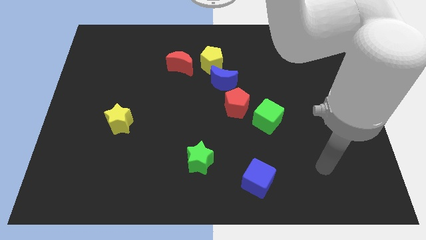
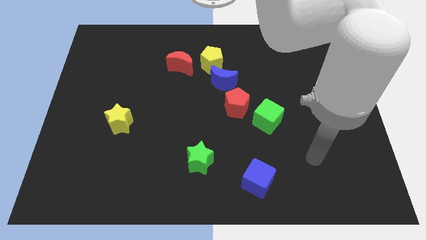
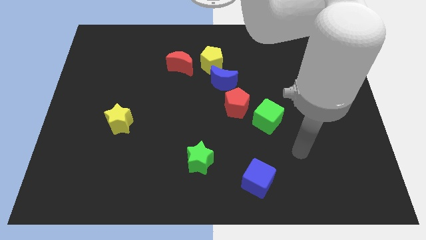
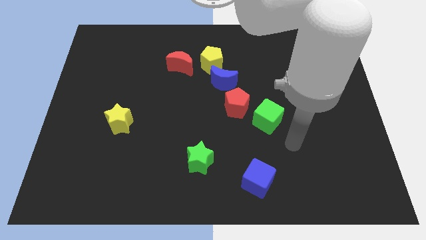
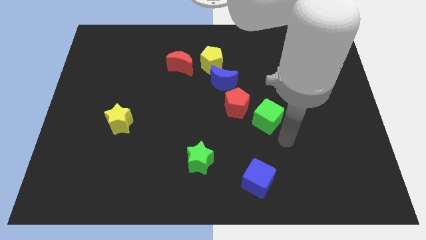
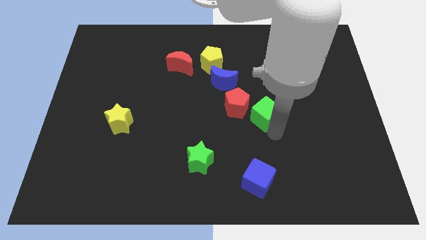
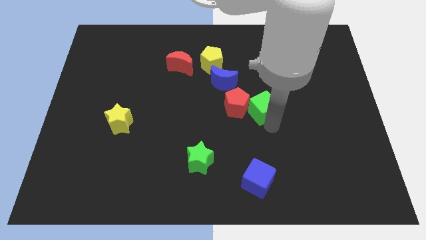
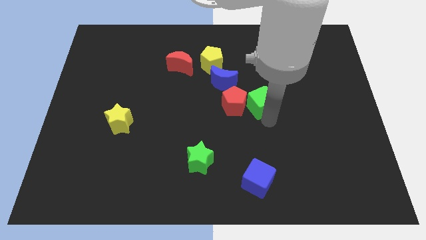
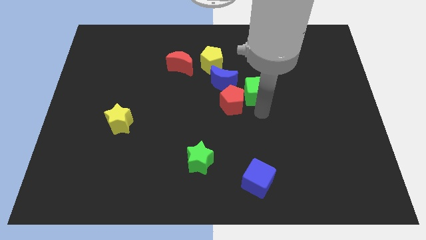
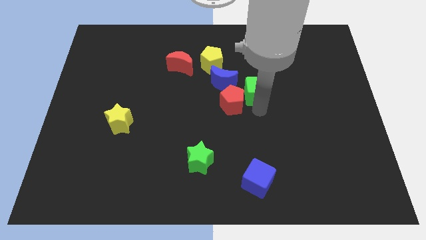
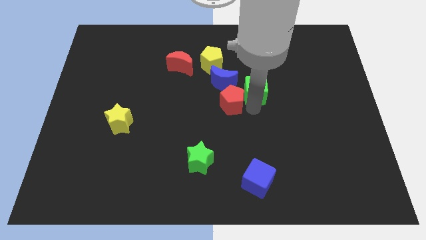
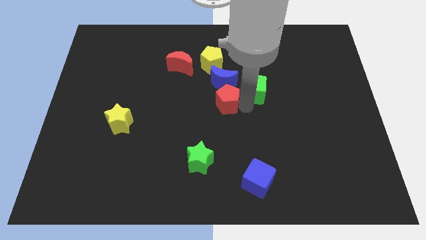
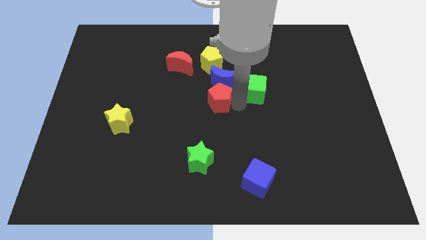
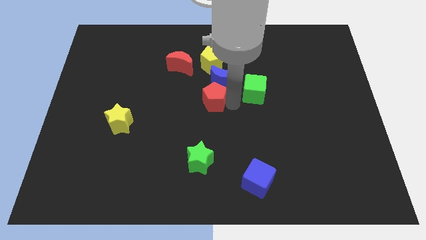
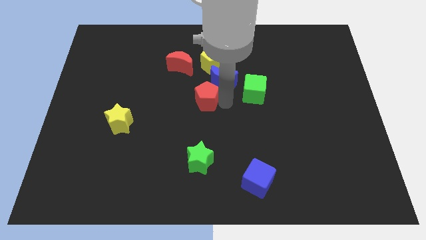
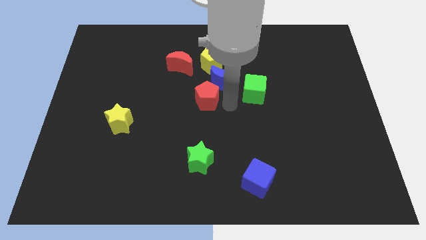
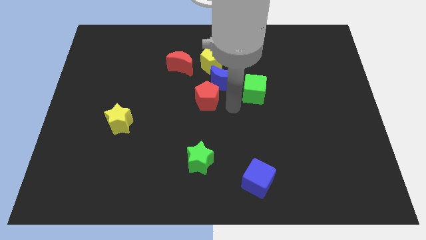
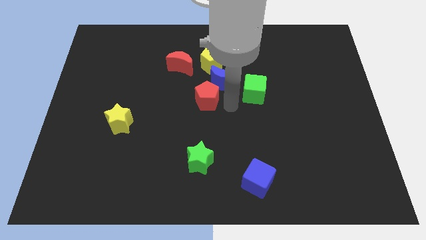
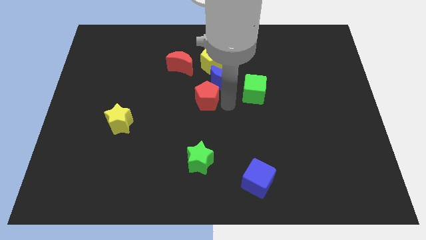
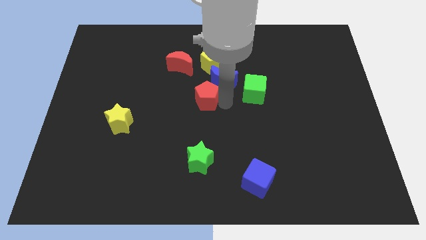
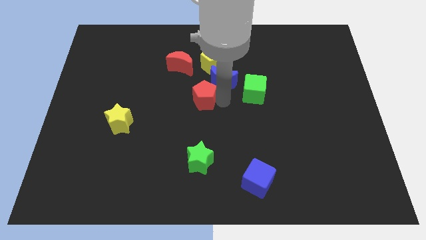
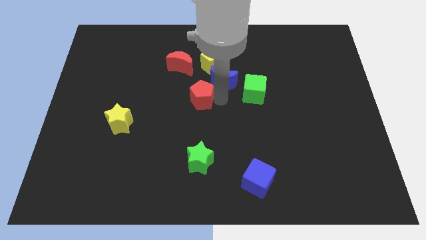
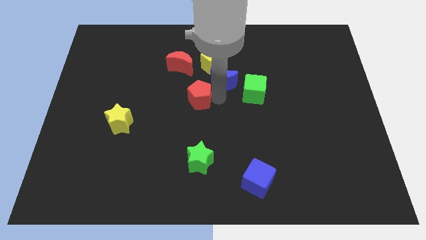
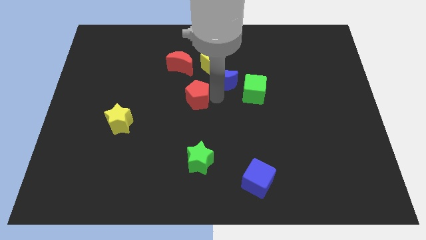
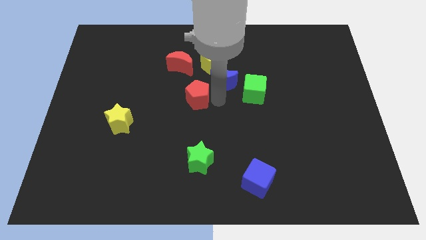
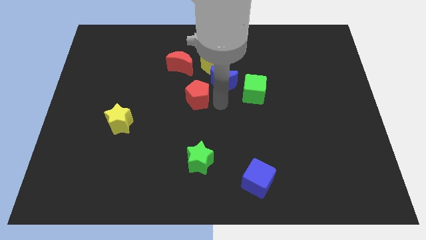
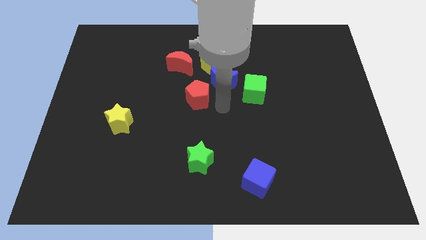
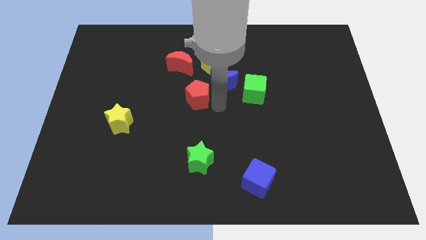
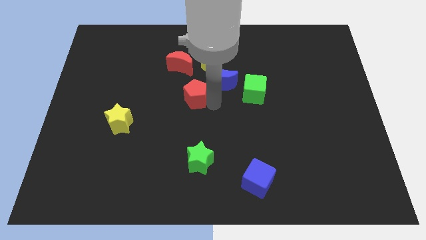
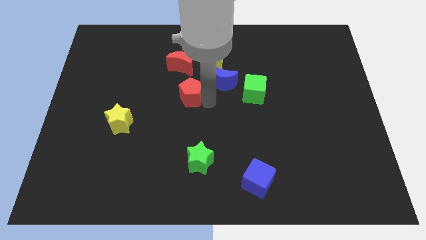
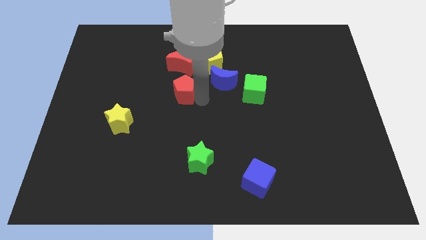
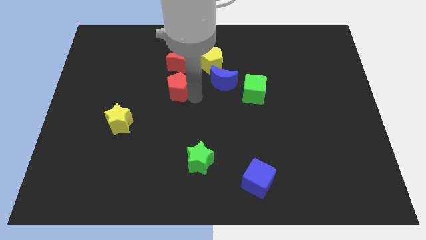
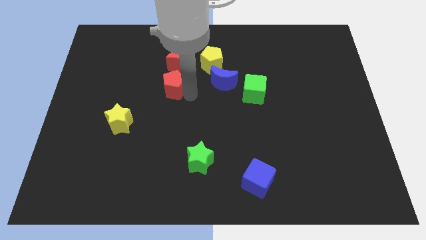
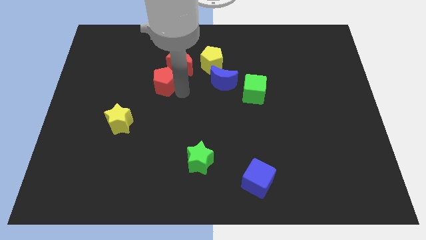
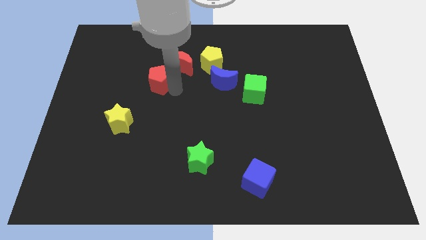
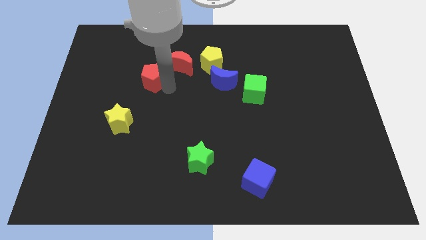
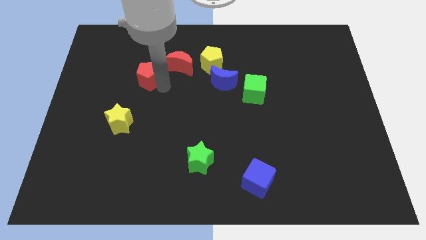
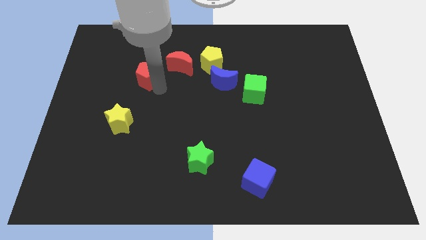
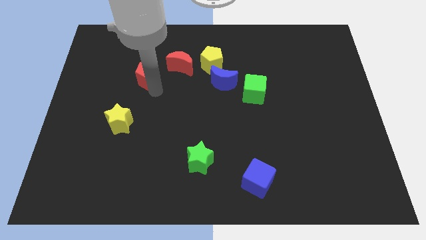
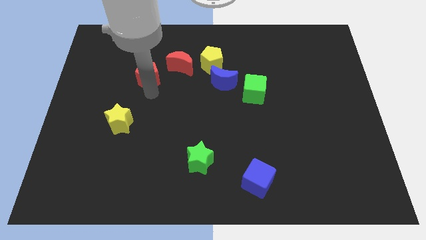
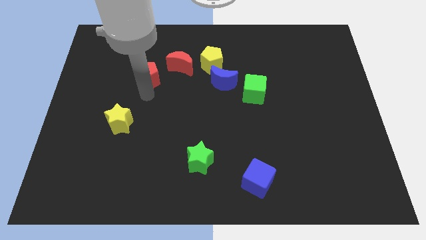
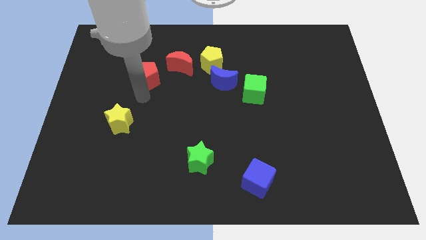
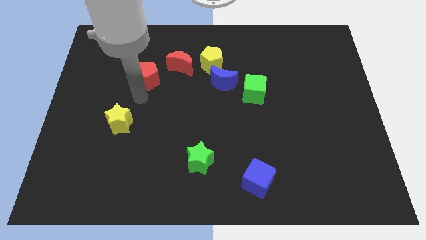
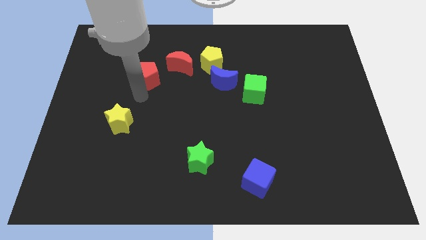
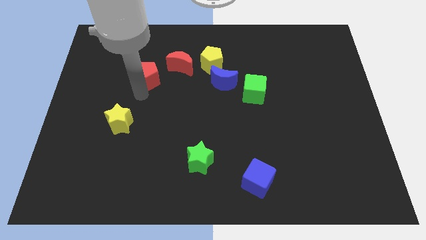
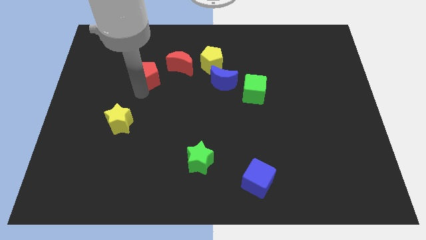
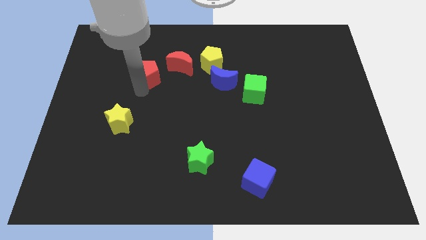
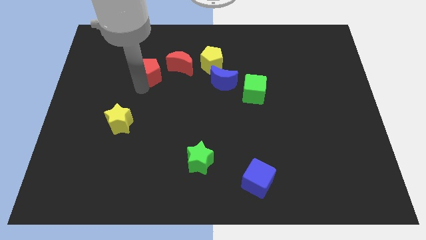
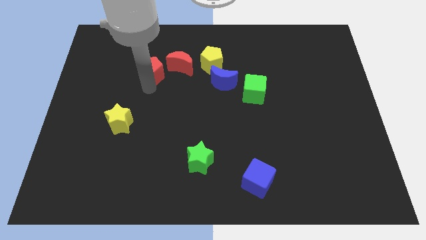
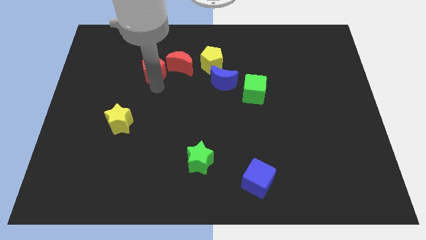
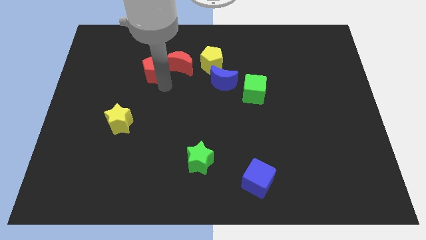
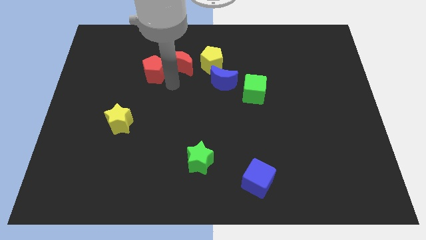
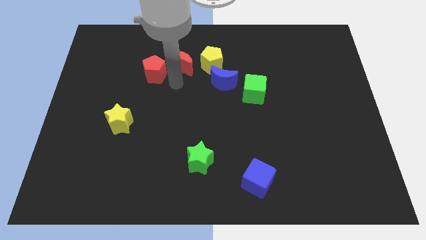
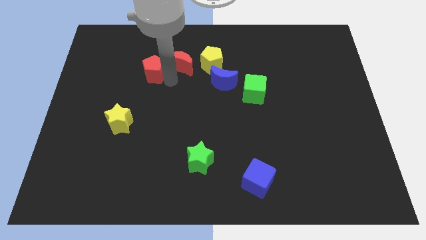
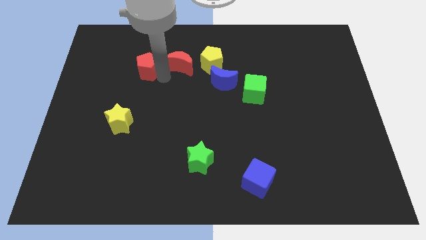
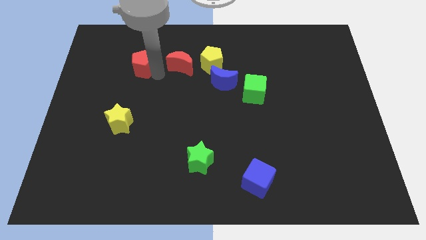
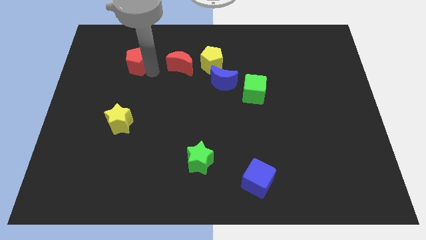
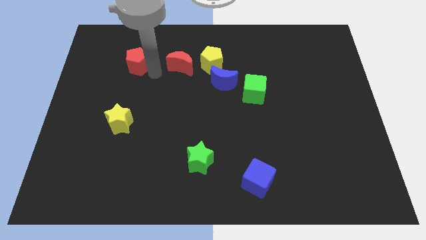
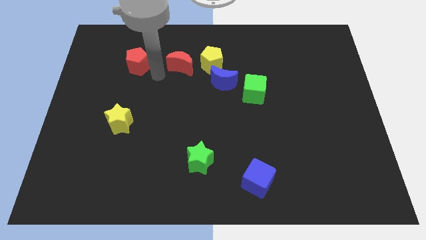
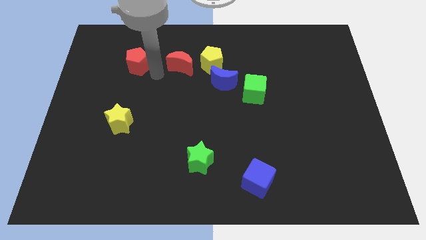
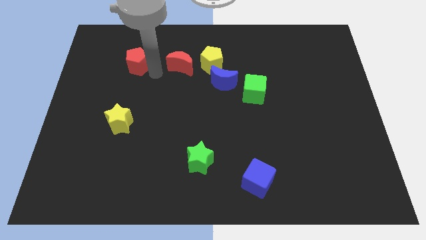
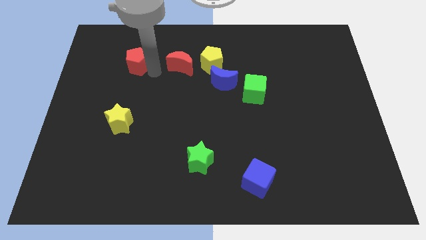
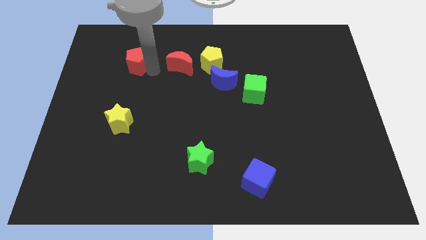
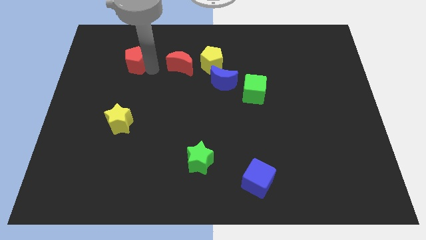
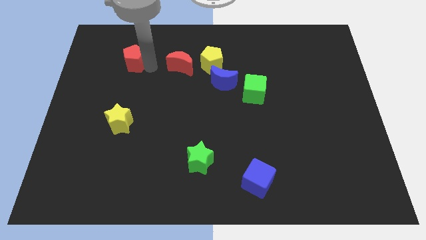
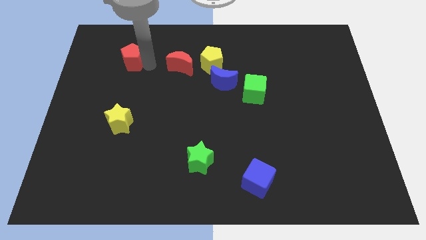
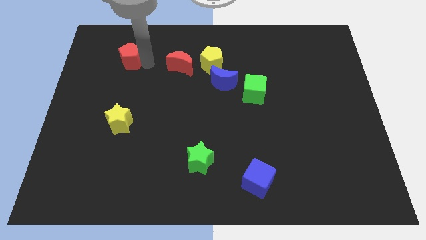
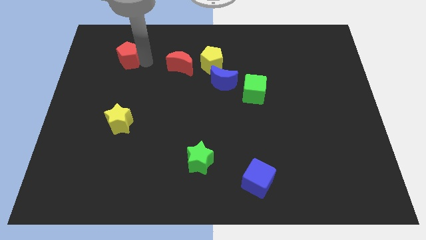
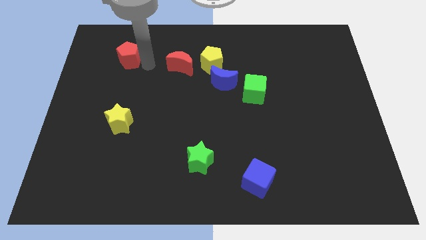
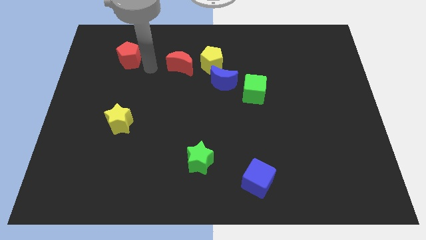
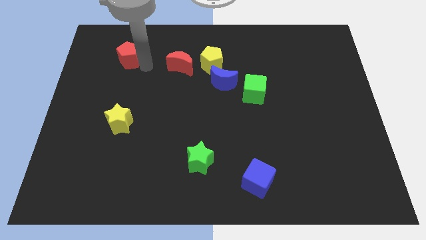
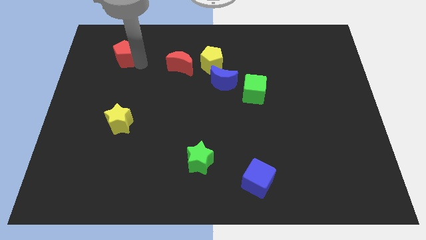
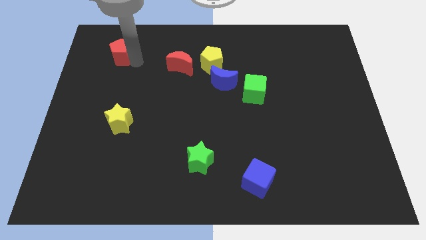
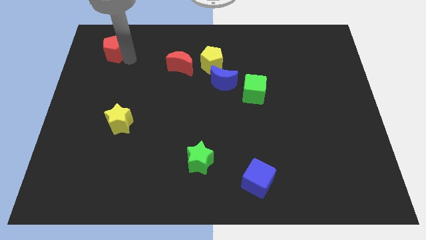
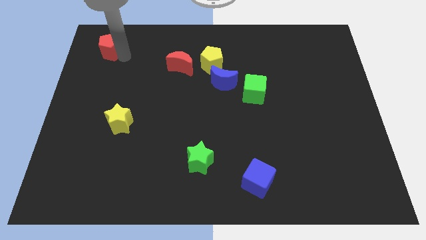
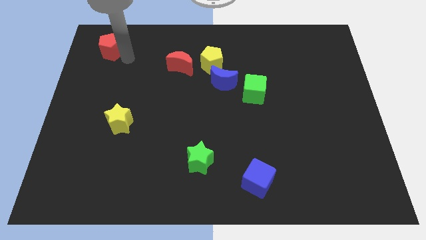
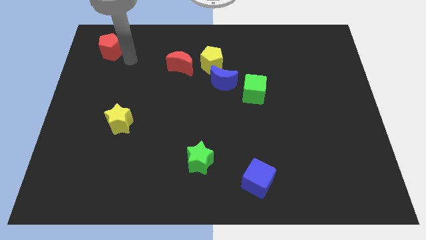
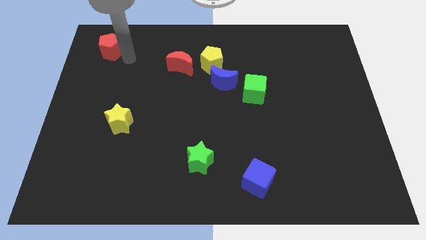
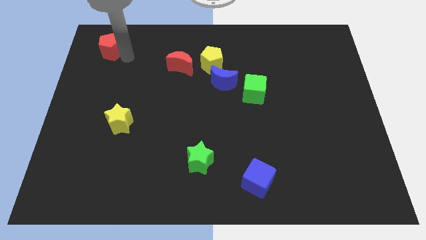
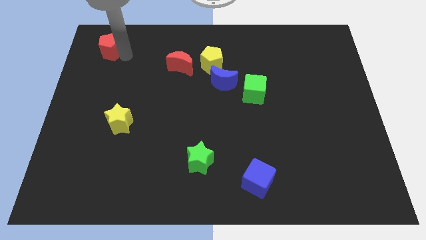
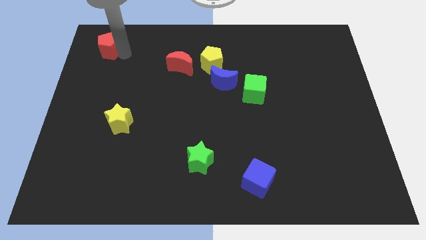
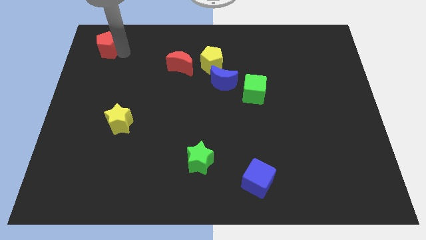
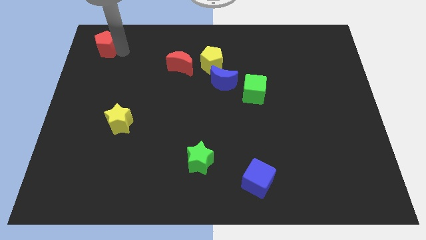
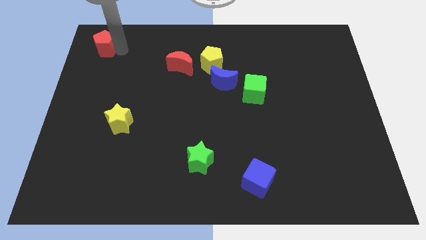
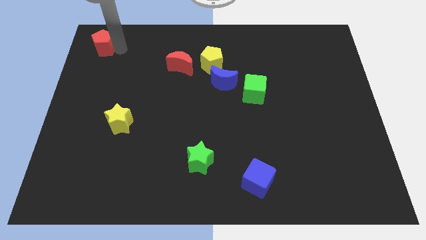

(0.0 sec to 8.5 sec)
push the red pentagon to the top left
